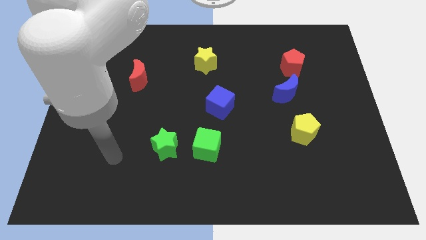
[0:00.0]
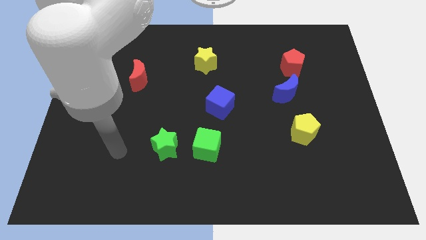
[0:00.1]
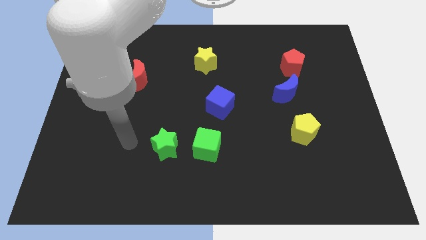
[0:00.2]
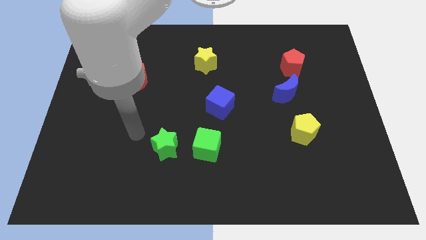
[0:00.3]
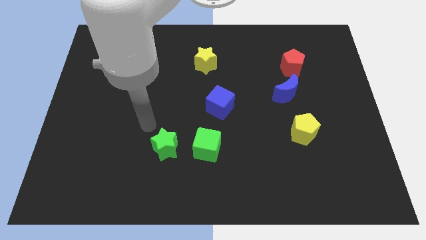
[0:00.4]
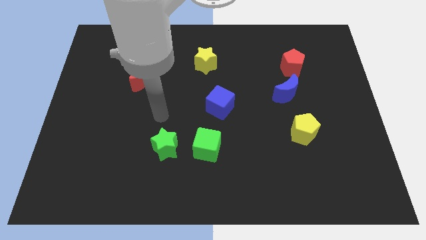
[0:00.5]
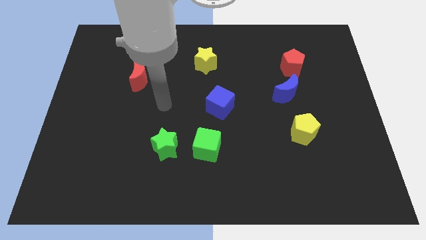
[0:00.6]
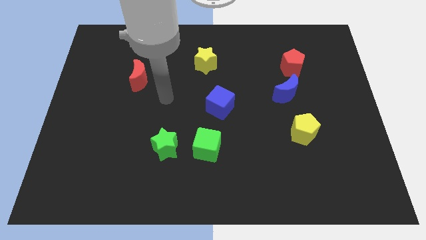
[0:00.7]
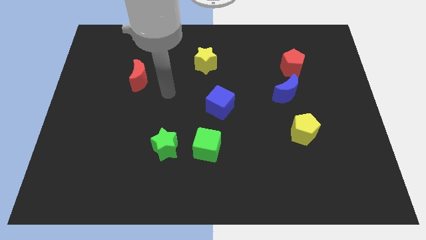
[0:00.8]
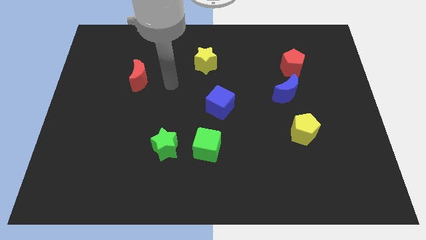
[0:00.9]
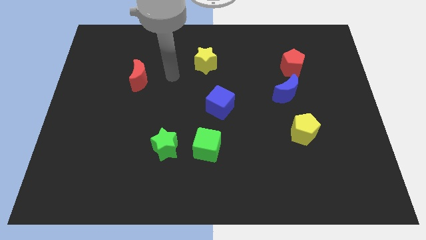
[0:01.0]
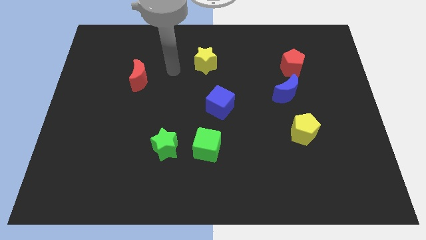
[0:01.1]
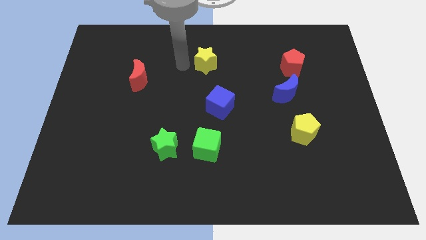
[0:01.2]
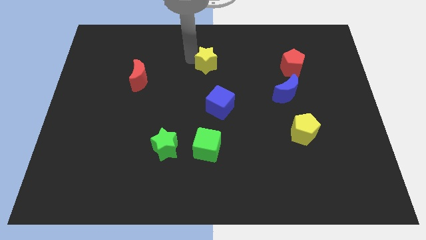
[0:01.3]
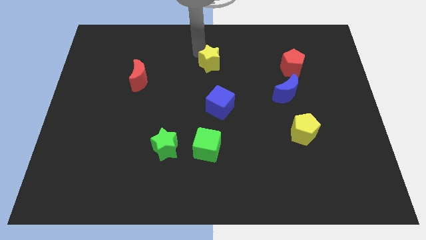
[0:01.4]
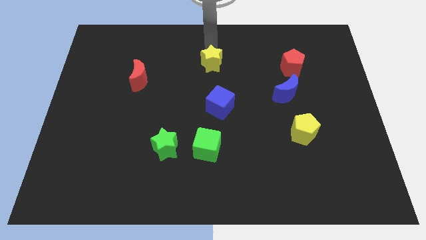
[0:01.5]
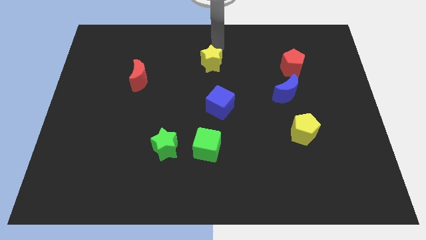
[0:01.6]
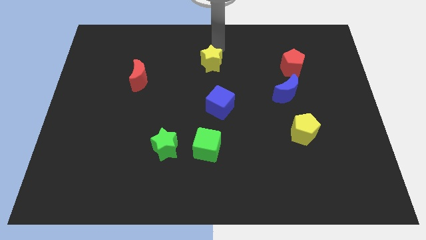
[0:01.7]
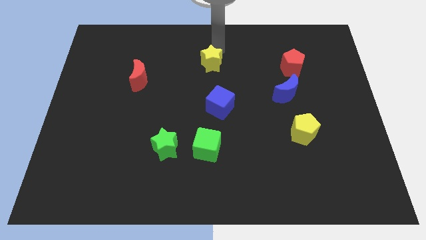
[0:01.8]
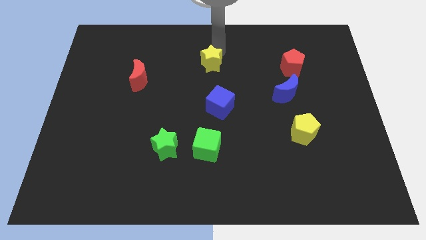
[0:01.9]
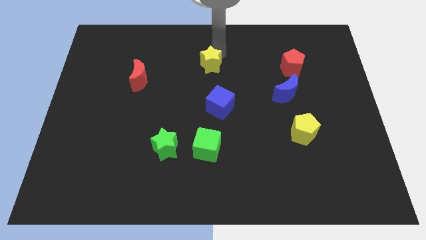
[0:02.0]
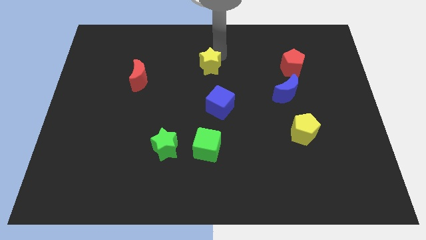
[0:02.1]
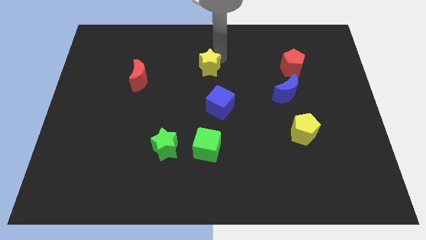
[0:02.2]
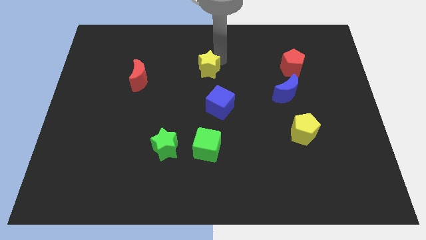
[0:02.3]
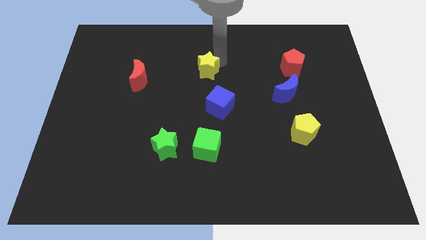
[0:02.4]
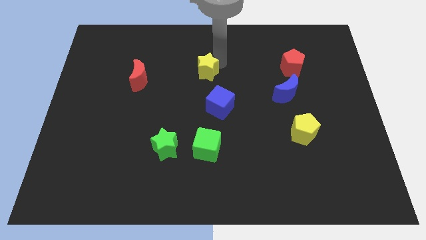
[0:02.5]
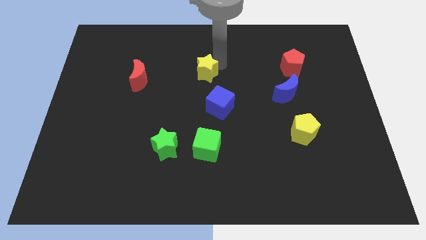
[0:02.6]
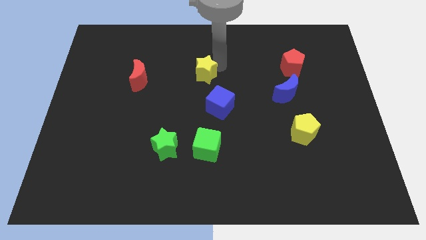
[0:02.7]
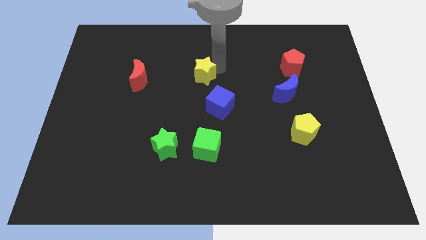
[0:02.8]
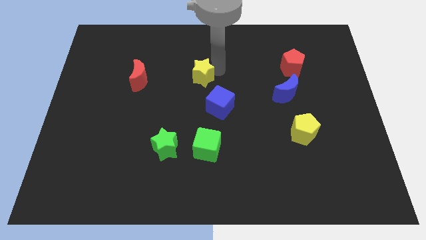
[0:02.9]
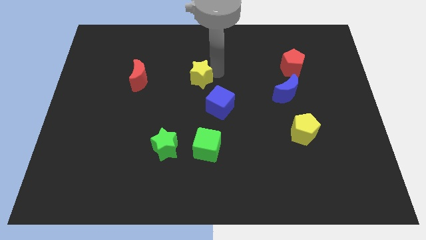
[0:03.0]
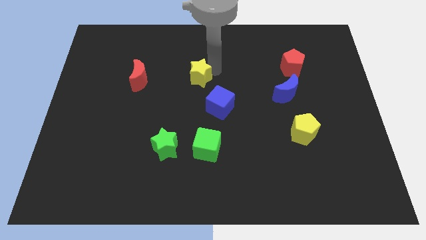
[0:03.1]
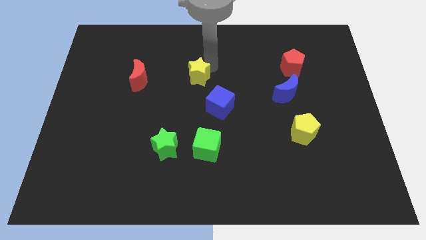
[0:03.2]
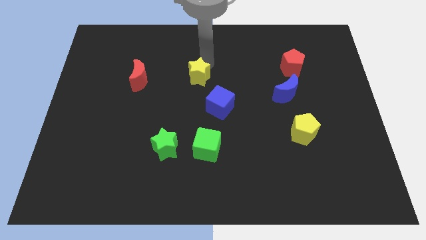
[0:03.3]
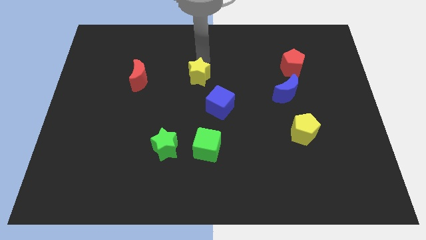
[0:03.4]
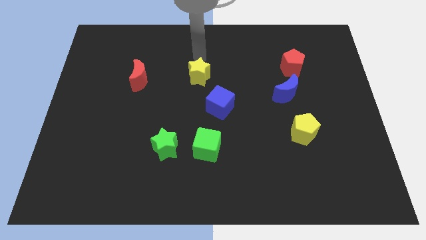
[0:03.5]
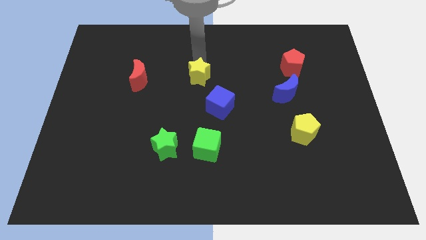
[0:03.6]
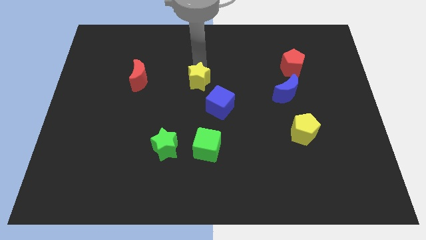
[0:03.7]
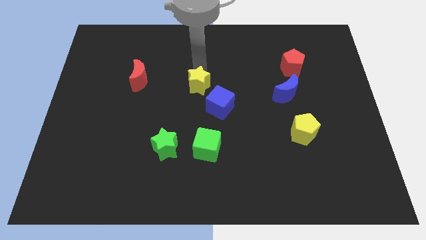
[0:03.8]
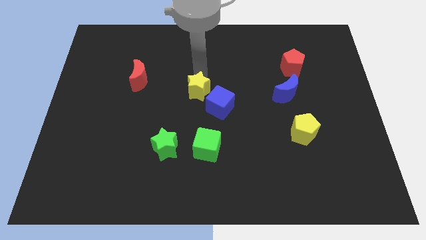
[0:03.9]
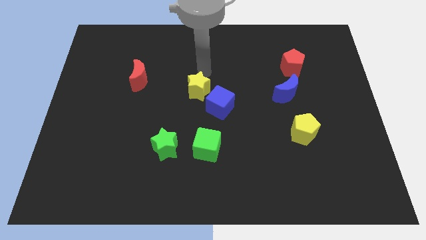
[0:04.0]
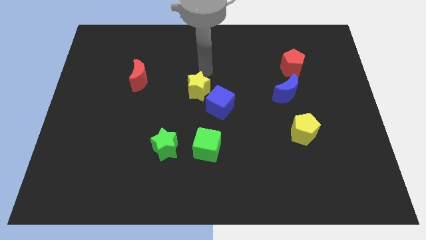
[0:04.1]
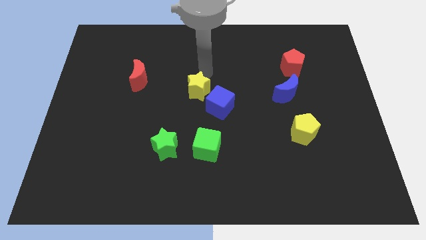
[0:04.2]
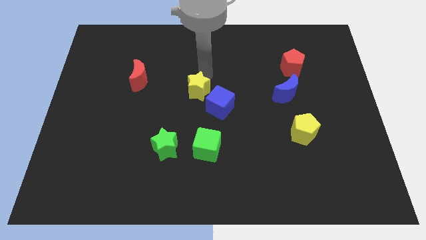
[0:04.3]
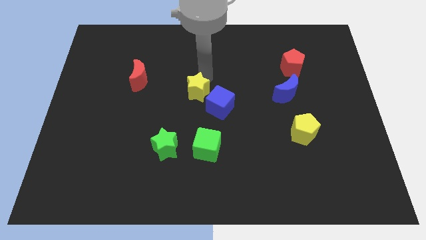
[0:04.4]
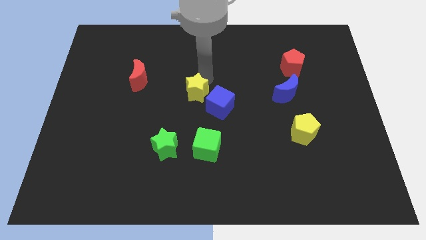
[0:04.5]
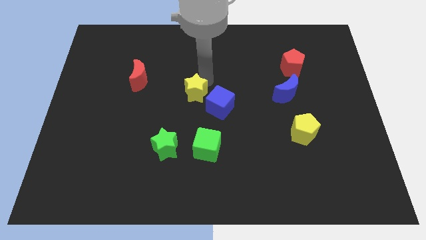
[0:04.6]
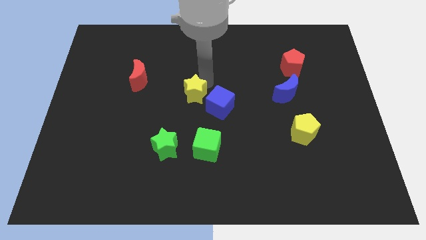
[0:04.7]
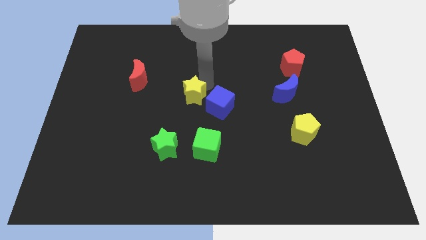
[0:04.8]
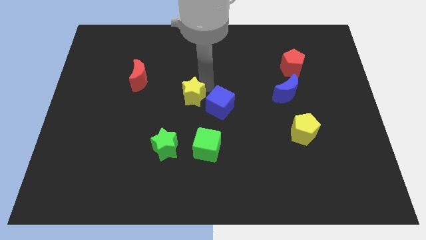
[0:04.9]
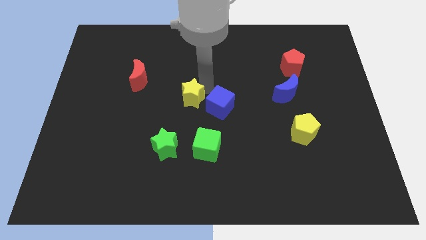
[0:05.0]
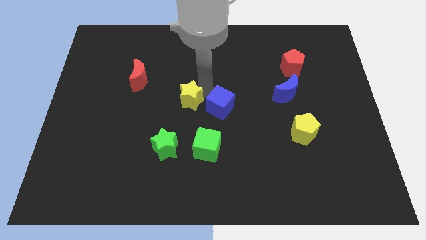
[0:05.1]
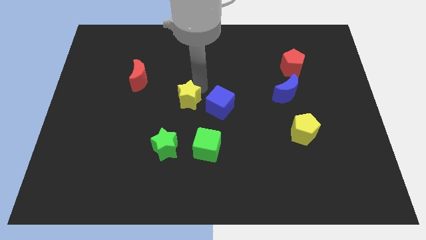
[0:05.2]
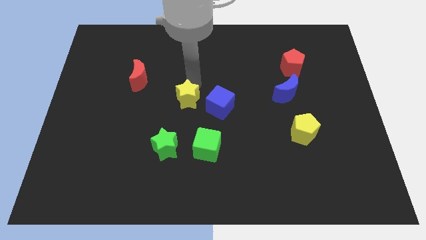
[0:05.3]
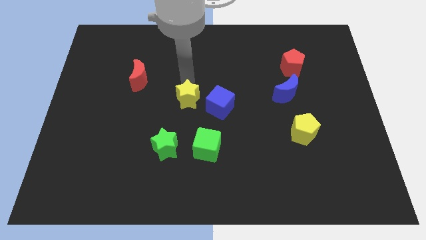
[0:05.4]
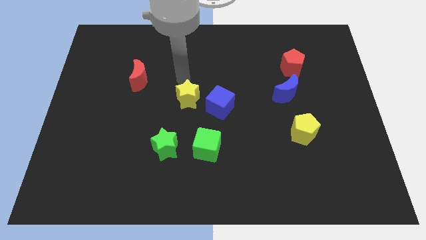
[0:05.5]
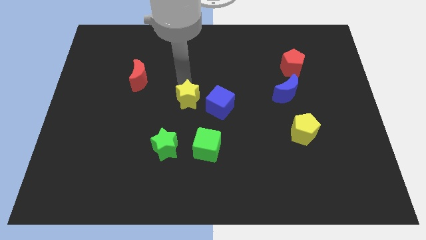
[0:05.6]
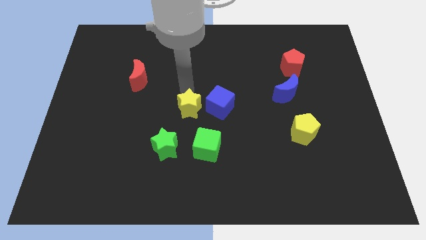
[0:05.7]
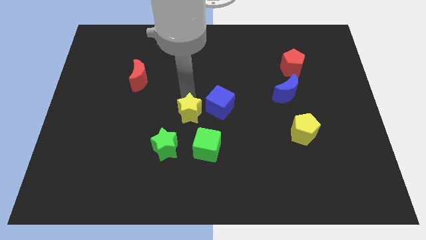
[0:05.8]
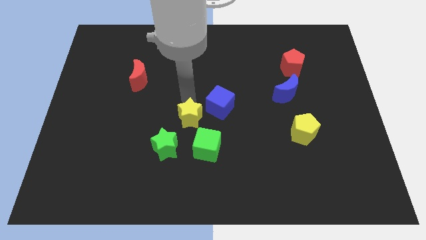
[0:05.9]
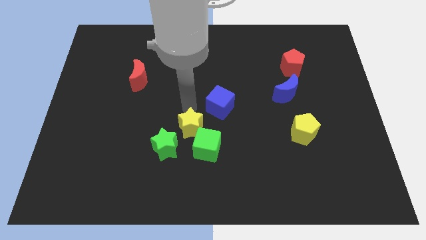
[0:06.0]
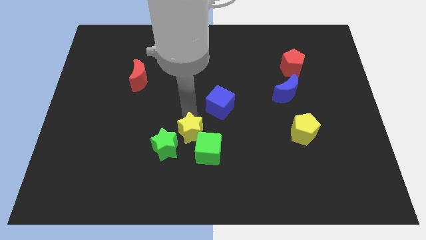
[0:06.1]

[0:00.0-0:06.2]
put the yellow star next to the green cube
